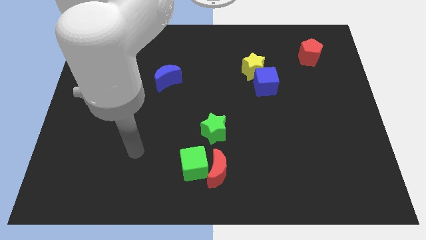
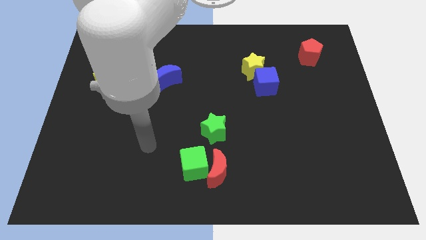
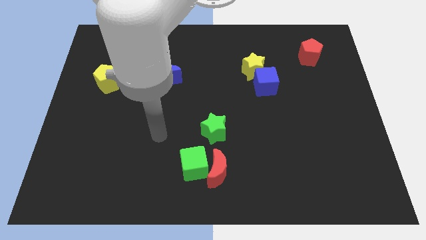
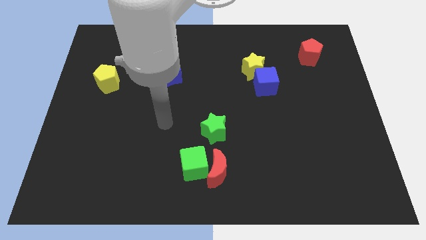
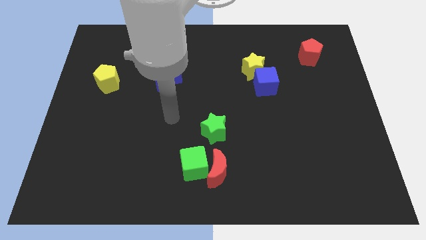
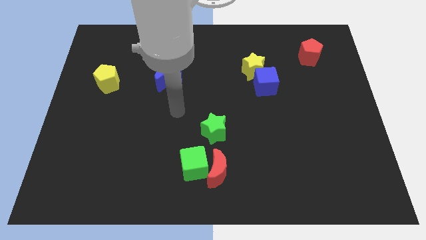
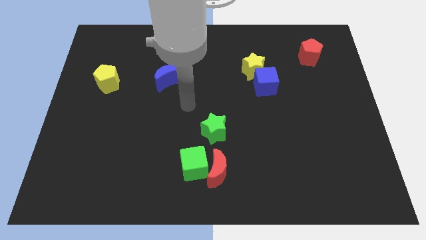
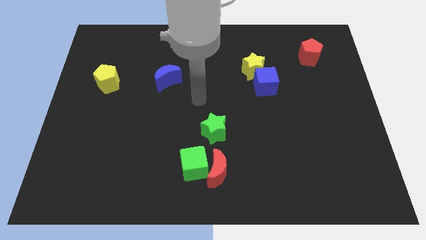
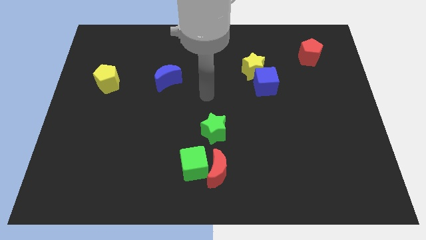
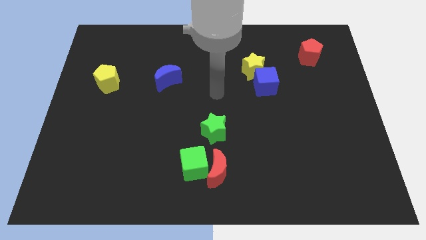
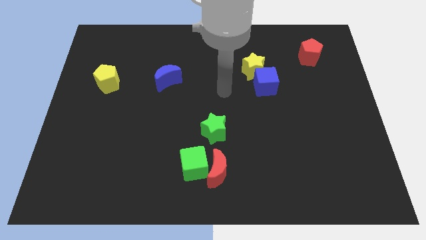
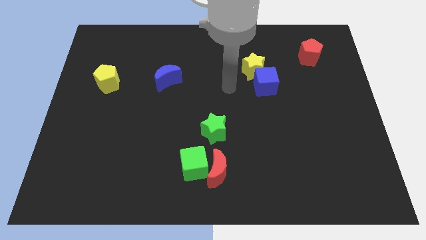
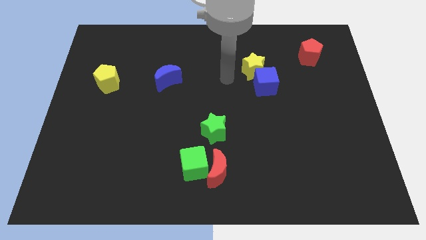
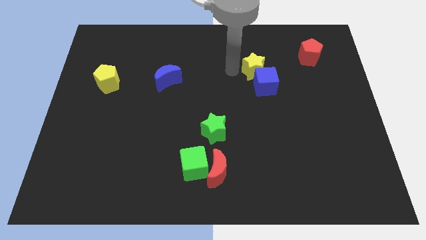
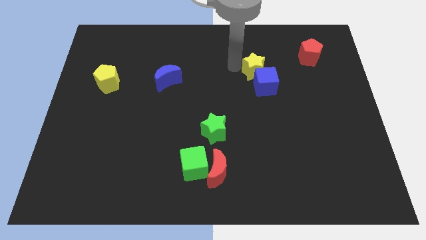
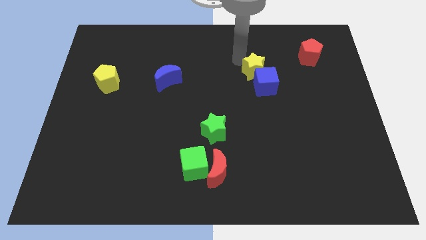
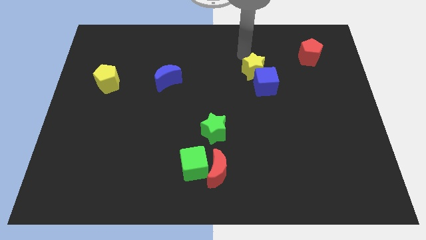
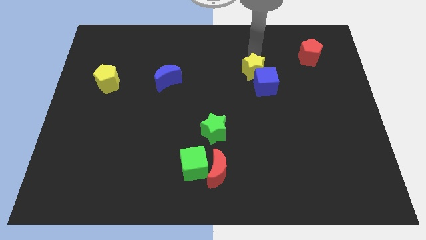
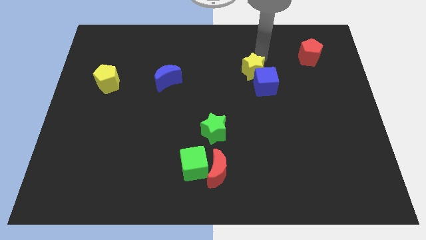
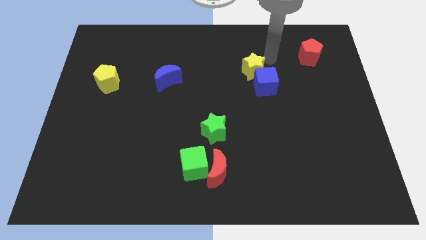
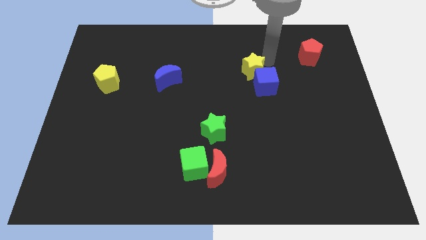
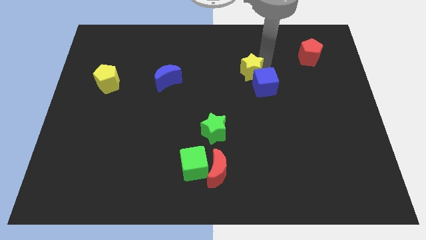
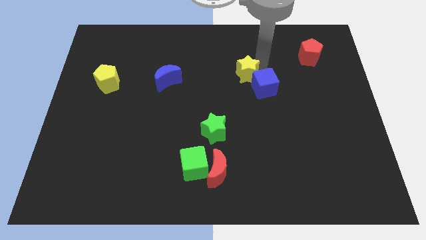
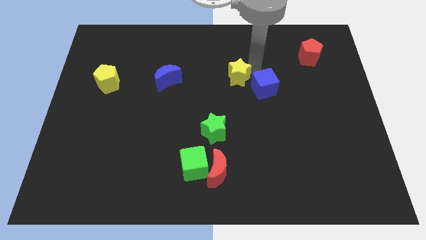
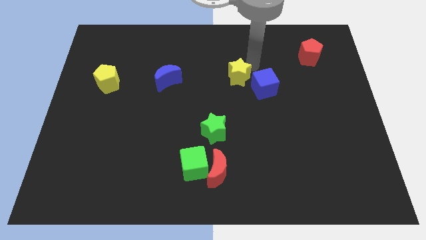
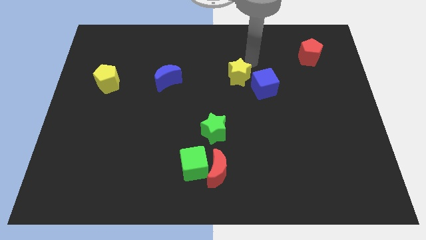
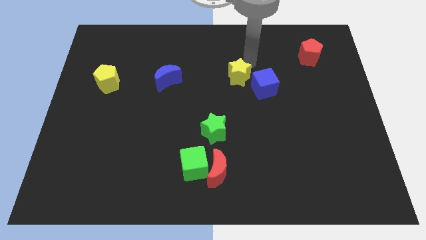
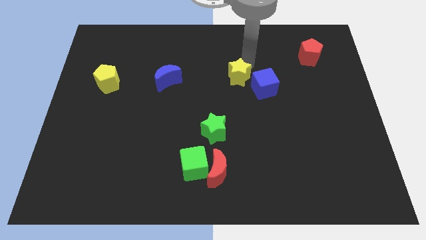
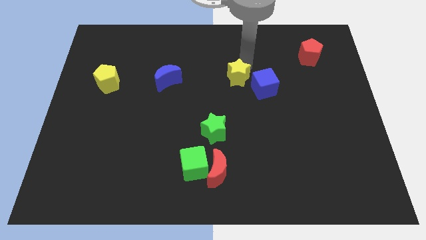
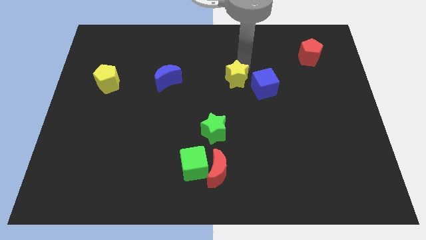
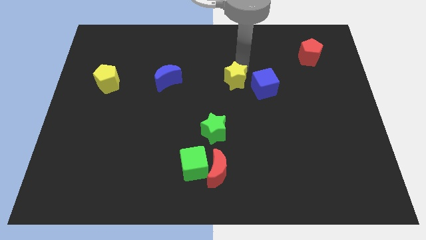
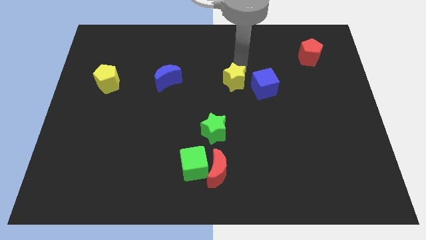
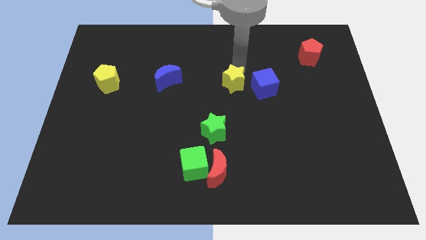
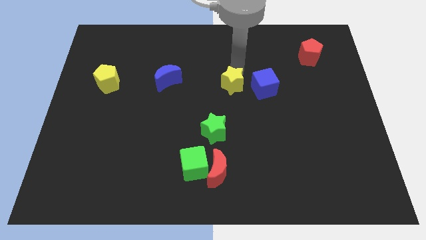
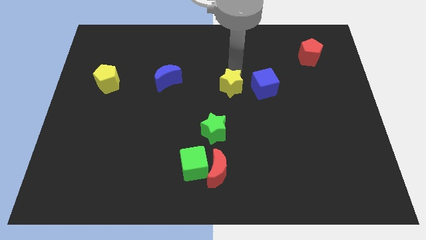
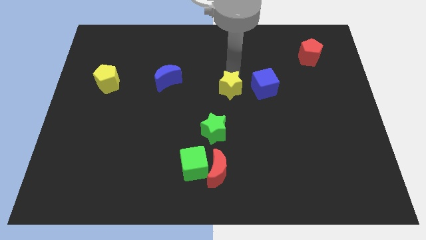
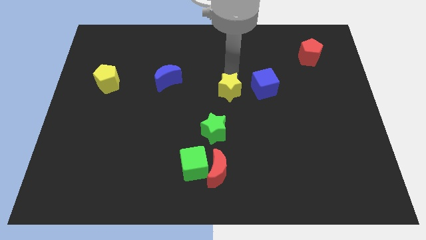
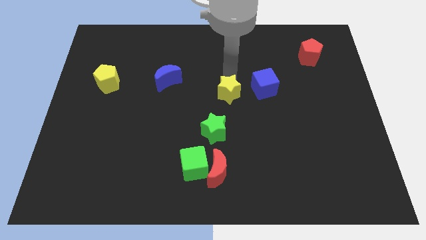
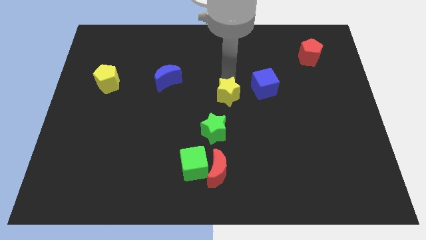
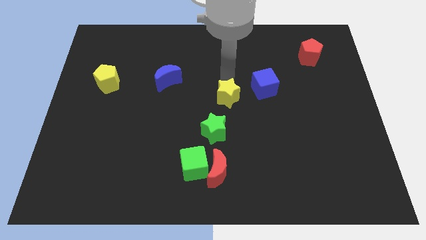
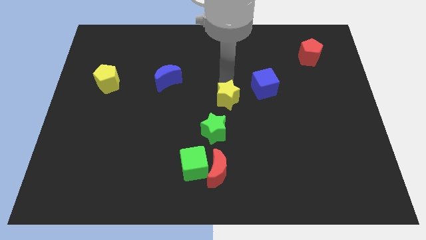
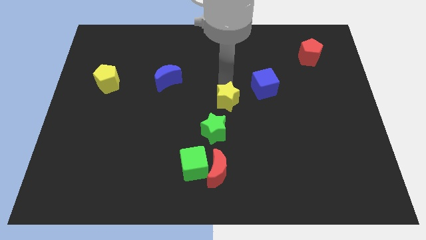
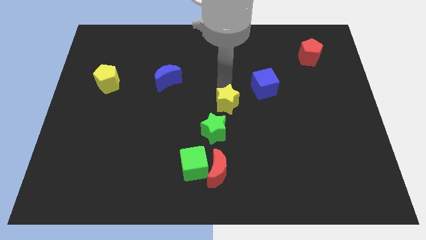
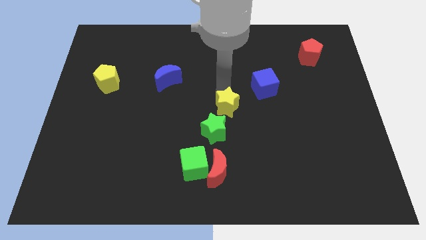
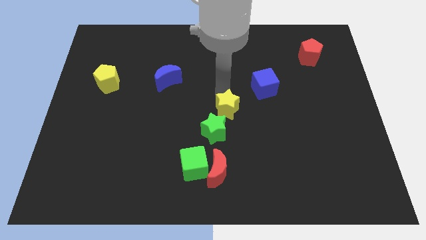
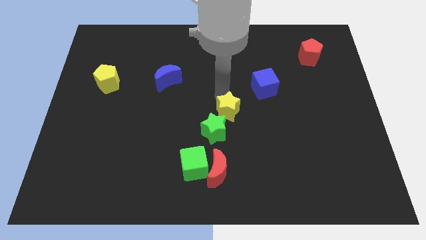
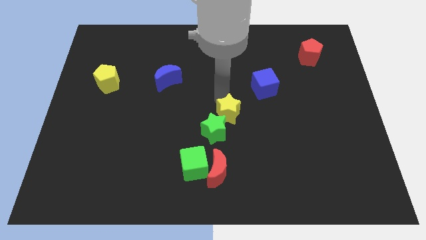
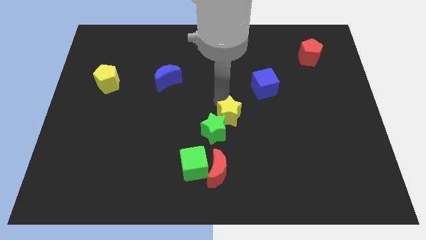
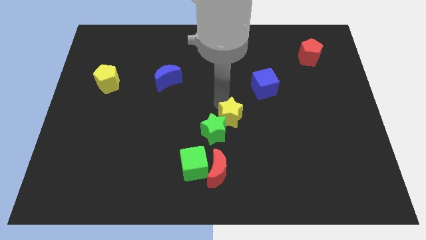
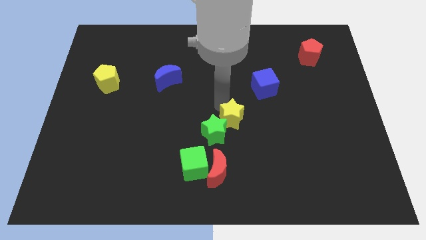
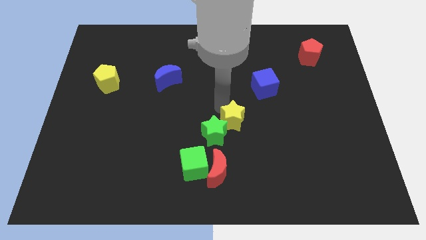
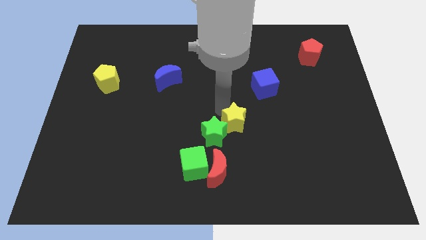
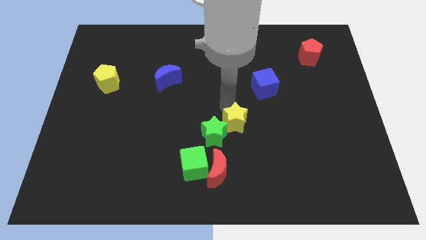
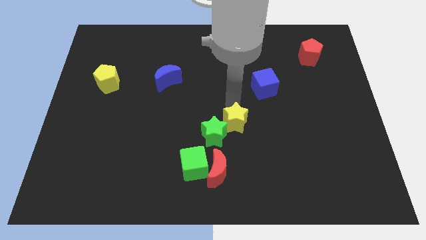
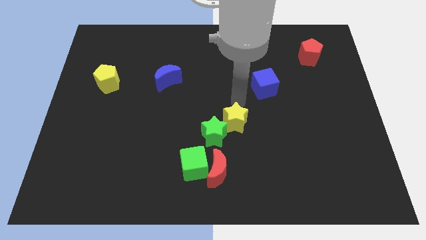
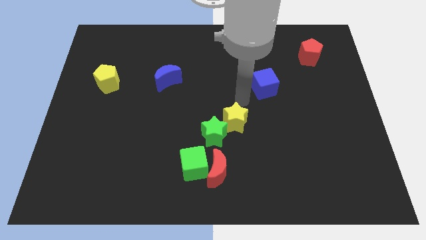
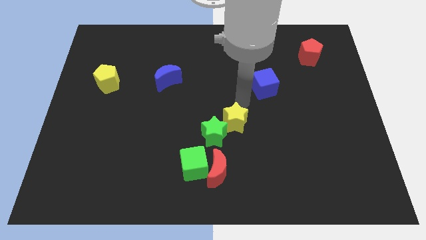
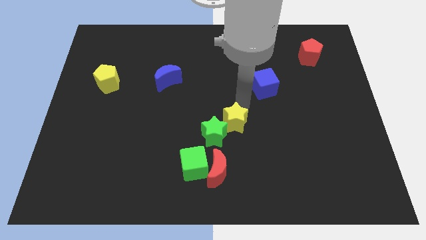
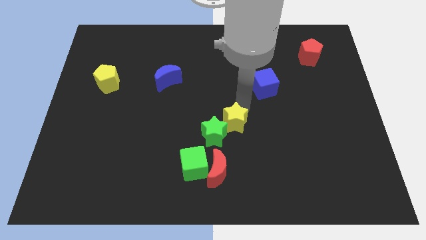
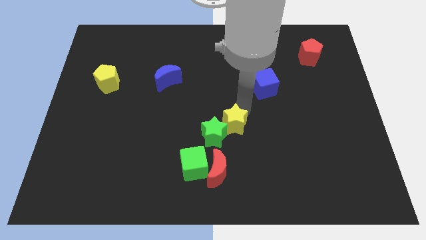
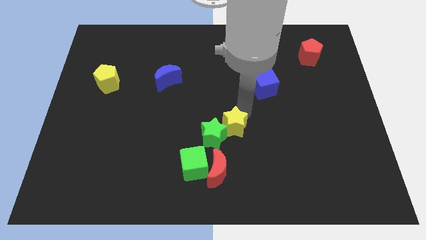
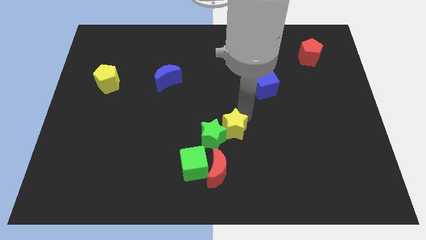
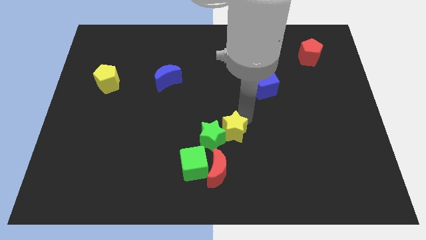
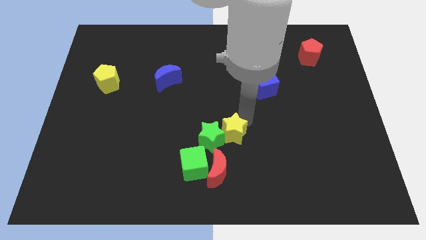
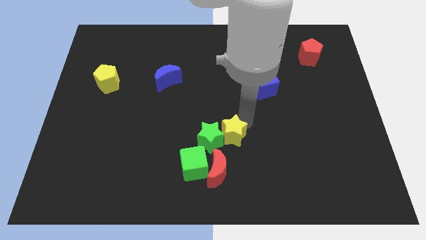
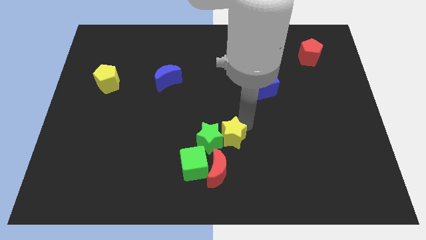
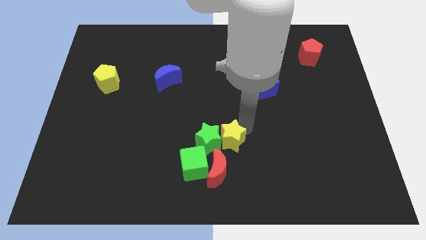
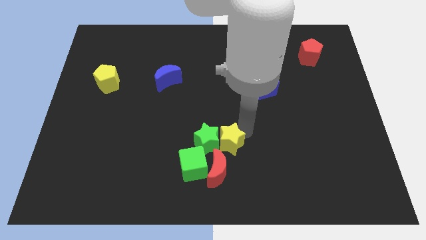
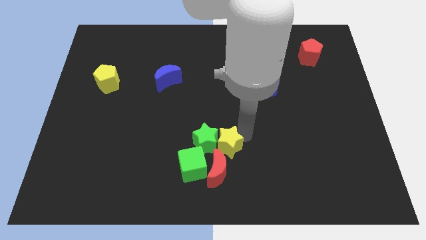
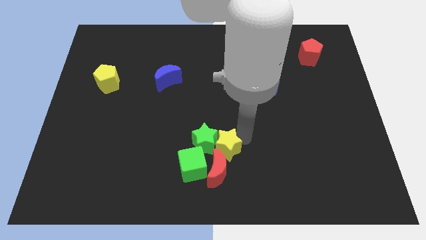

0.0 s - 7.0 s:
push the yellow star close to the red moon

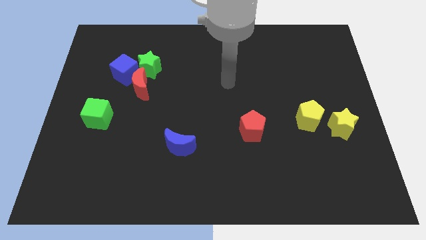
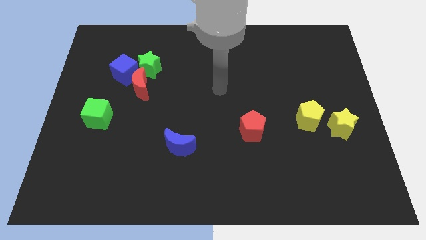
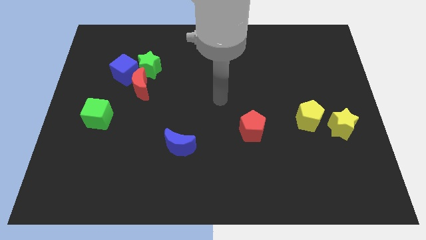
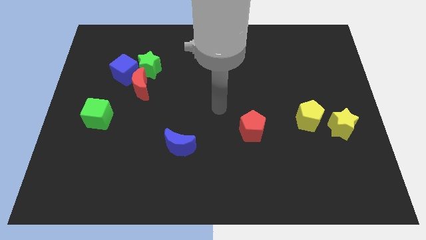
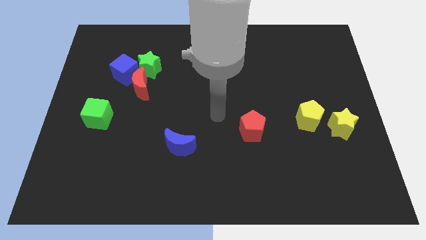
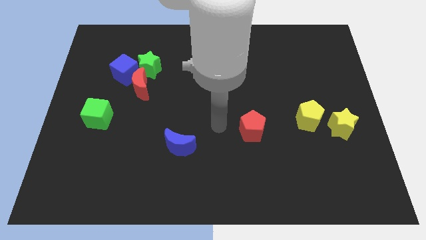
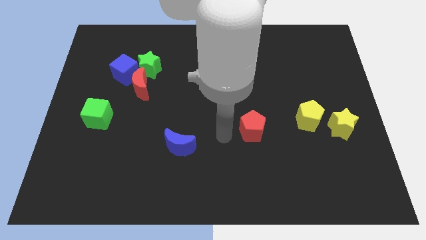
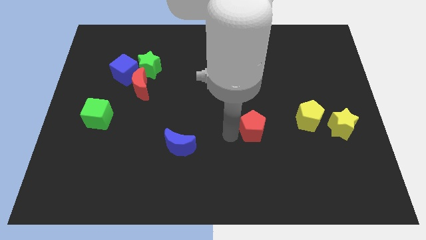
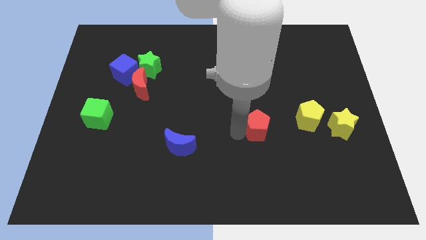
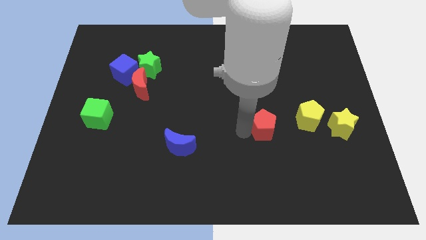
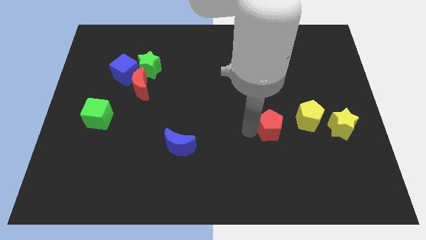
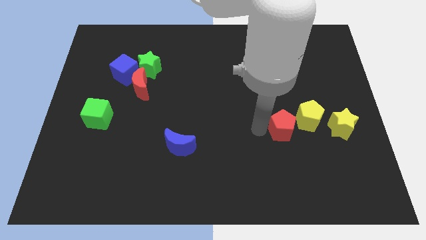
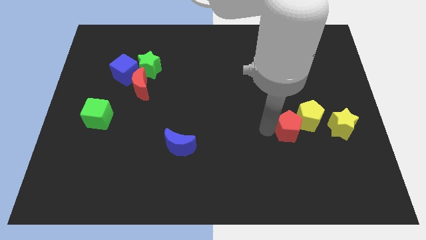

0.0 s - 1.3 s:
slide the red pentagon next to the yellow pentagon
